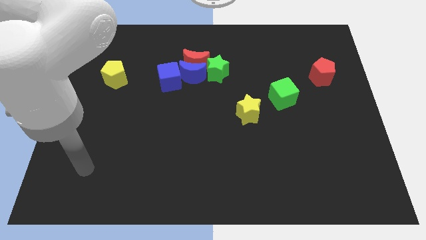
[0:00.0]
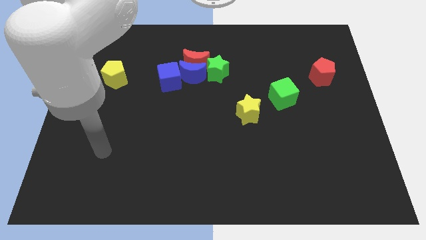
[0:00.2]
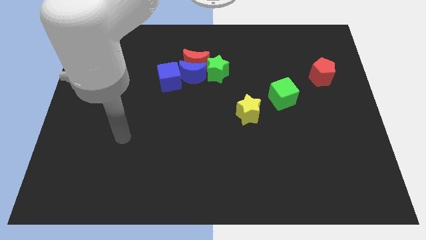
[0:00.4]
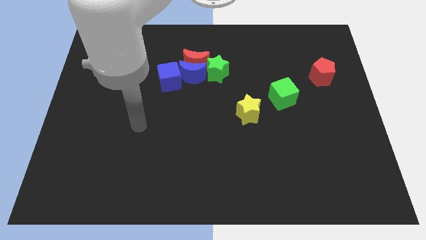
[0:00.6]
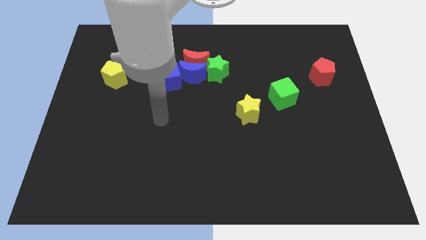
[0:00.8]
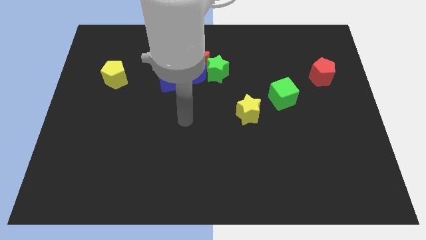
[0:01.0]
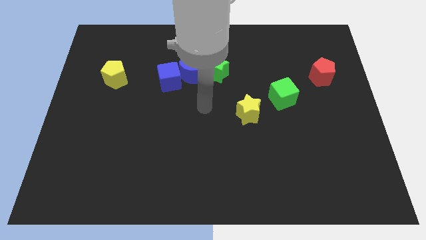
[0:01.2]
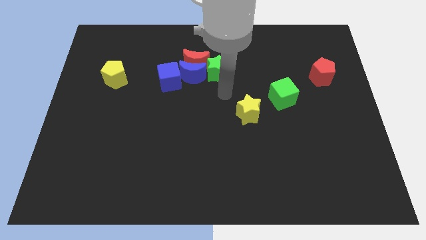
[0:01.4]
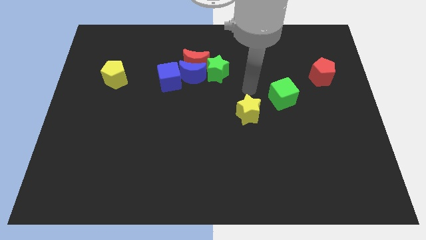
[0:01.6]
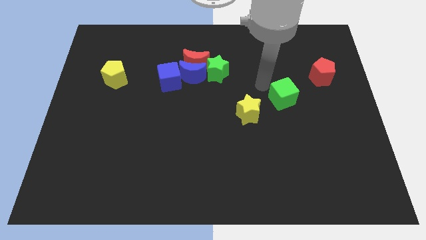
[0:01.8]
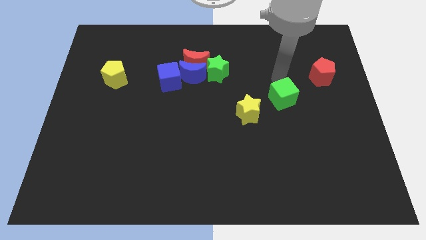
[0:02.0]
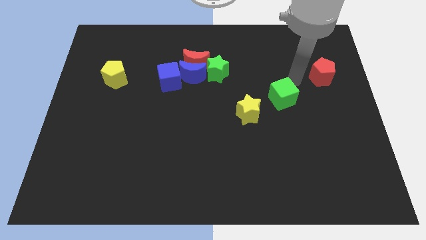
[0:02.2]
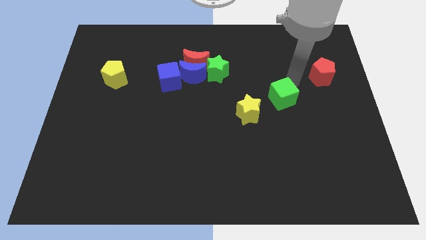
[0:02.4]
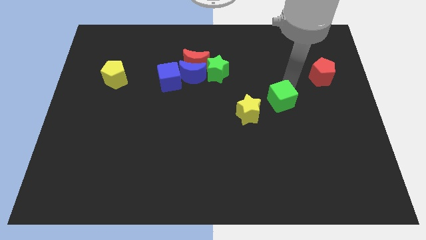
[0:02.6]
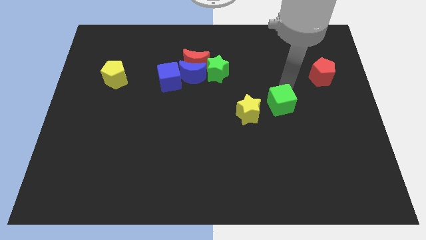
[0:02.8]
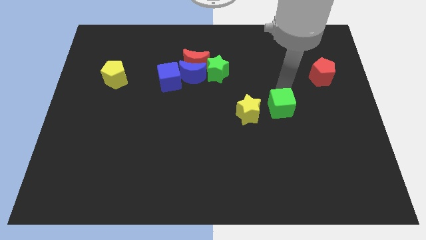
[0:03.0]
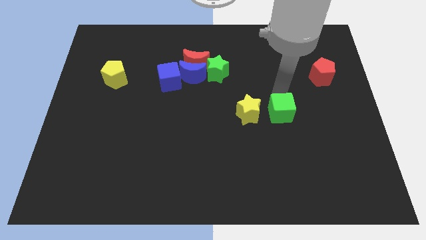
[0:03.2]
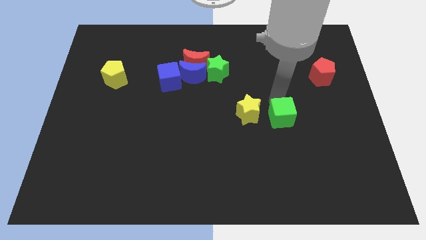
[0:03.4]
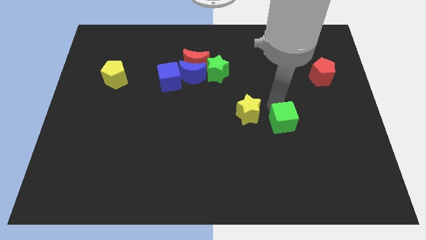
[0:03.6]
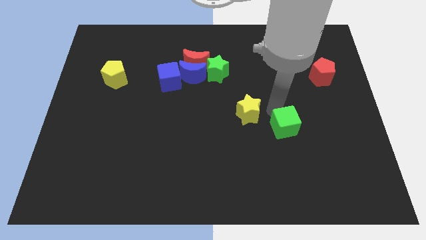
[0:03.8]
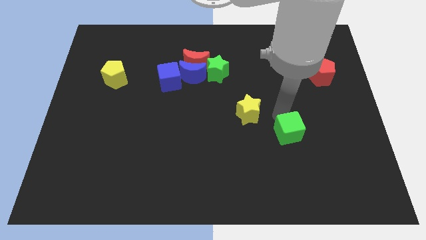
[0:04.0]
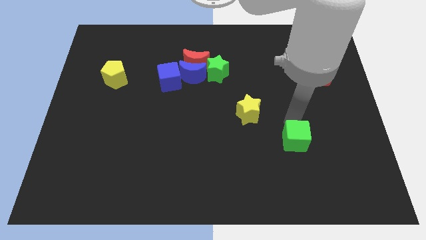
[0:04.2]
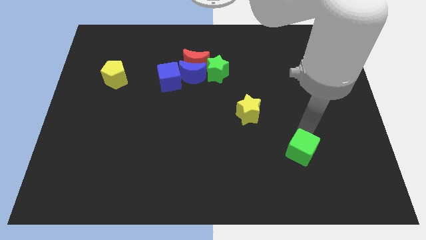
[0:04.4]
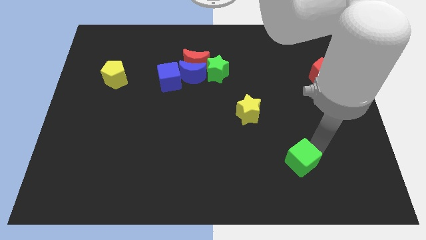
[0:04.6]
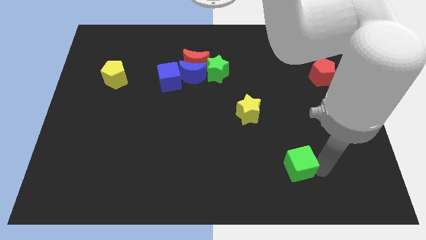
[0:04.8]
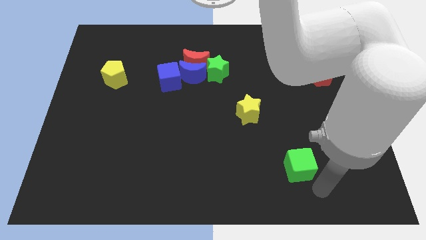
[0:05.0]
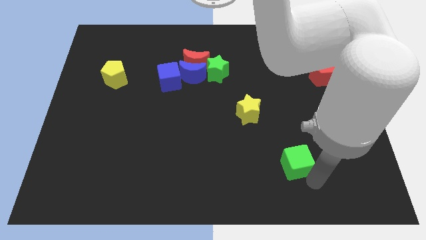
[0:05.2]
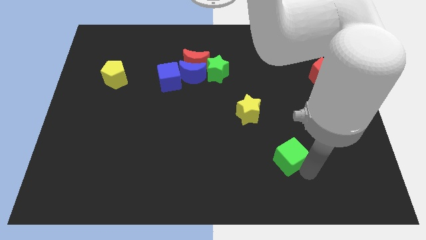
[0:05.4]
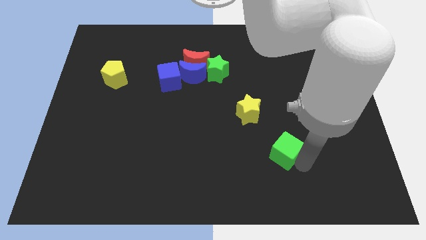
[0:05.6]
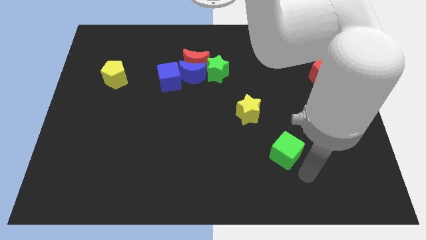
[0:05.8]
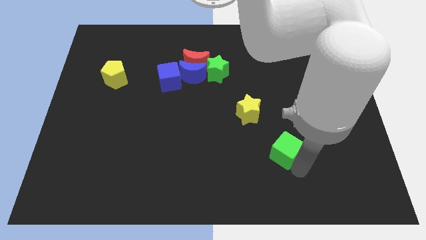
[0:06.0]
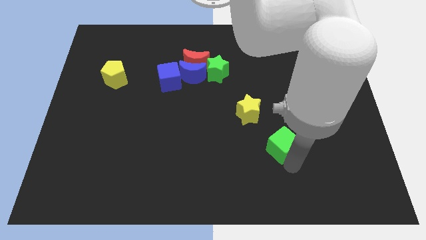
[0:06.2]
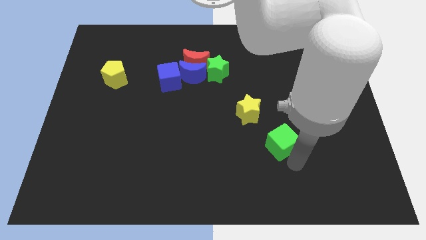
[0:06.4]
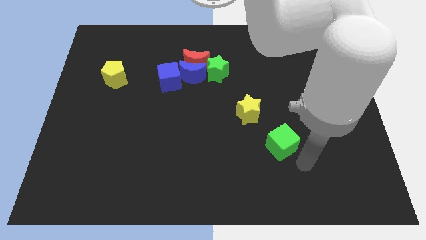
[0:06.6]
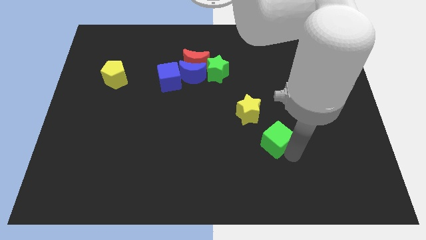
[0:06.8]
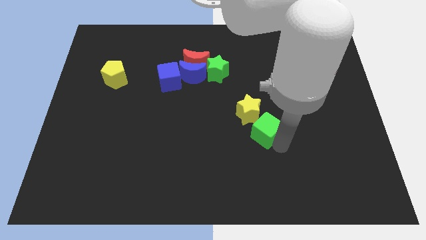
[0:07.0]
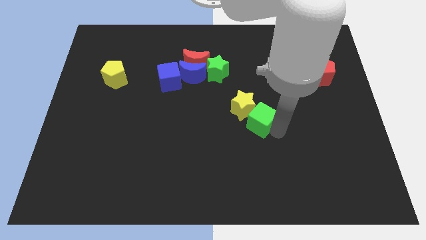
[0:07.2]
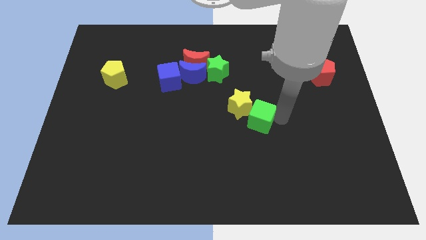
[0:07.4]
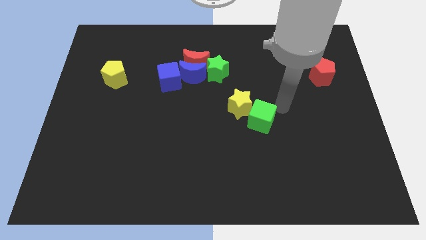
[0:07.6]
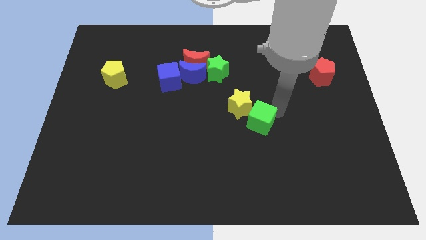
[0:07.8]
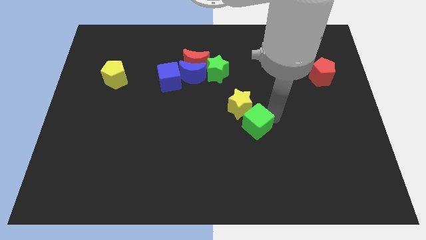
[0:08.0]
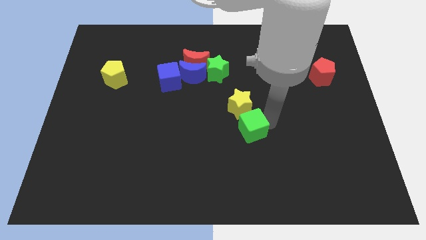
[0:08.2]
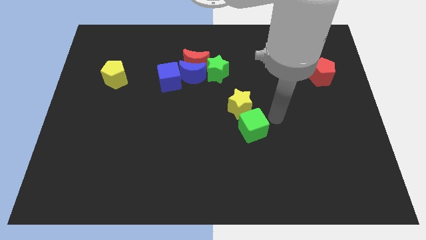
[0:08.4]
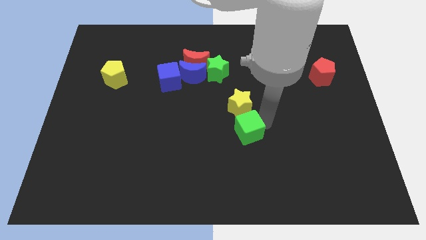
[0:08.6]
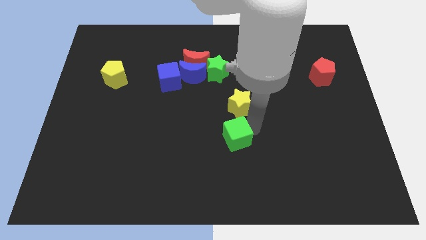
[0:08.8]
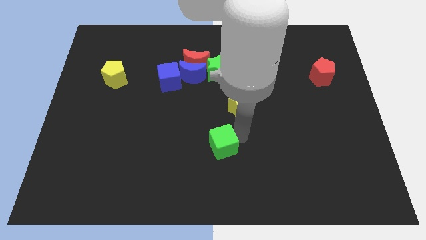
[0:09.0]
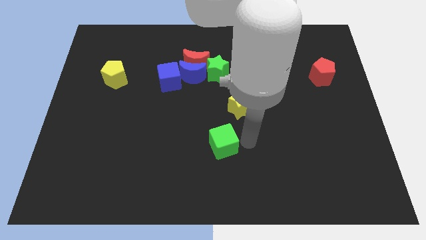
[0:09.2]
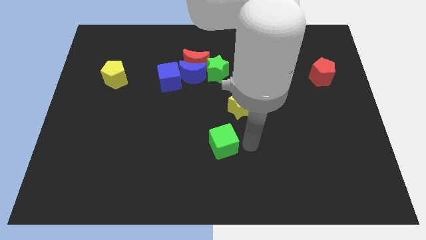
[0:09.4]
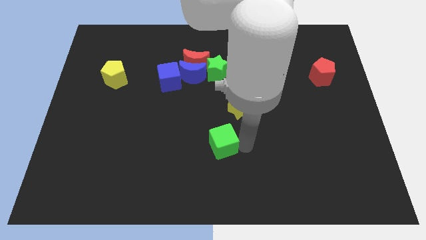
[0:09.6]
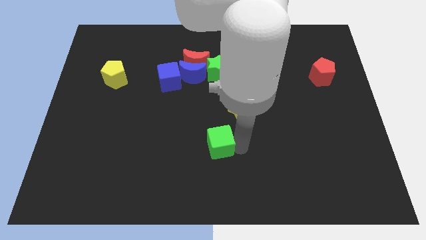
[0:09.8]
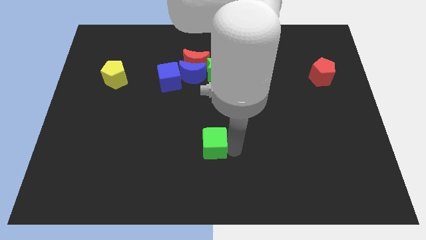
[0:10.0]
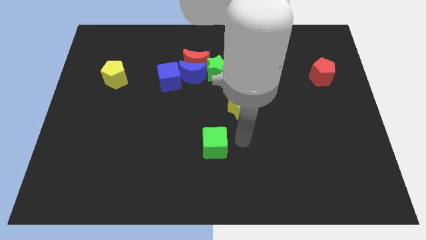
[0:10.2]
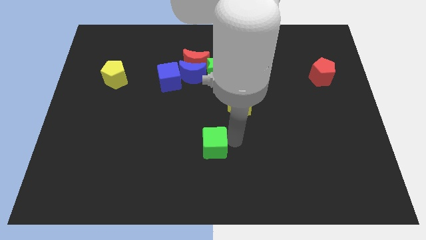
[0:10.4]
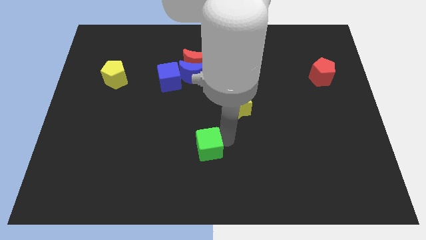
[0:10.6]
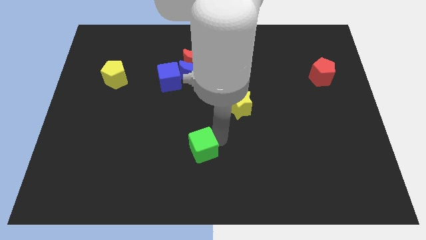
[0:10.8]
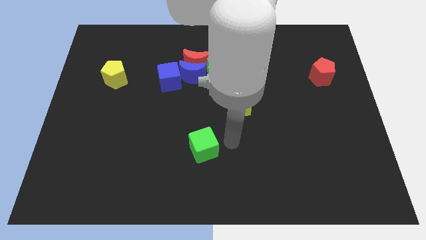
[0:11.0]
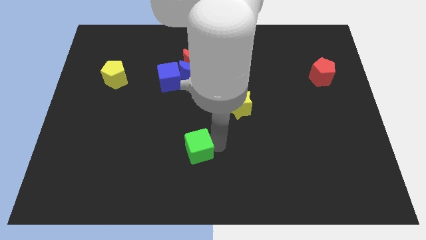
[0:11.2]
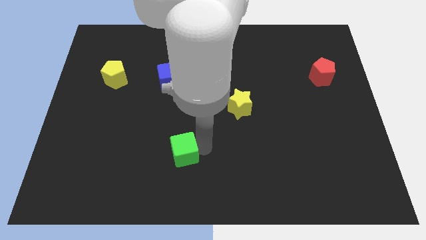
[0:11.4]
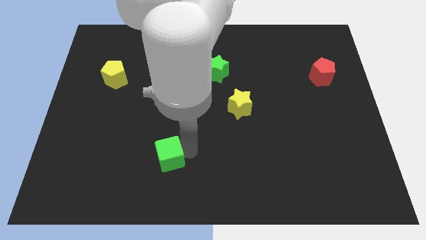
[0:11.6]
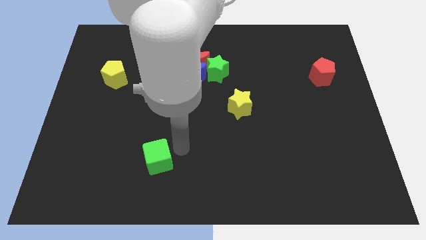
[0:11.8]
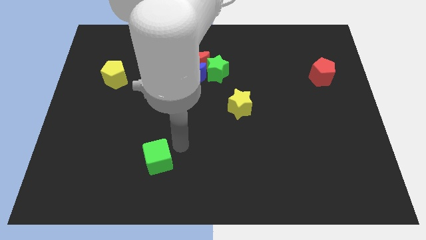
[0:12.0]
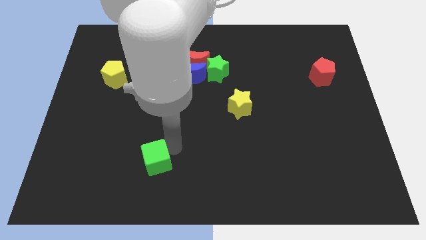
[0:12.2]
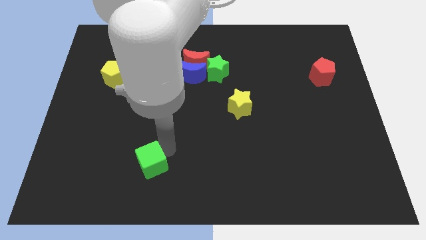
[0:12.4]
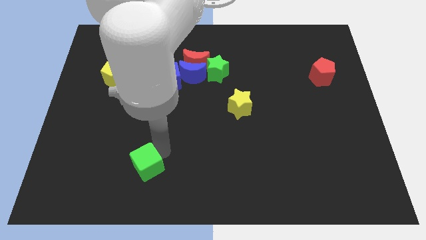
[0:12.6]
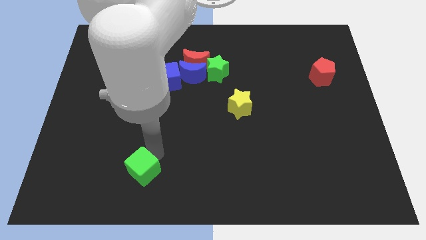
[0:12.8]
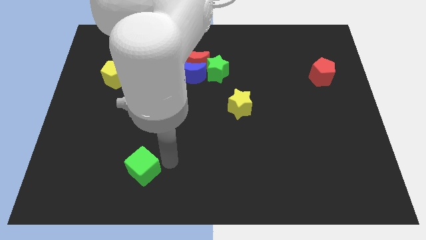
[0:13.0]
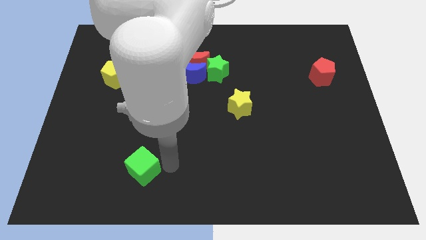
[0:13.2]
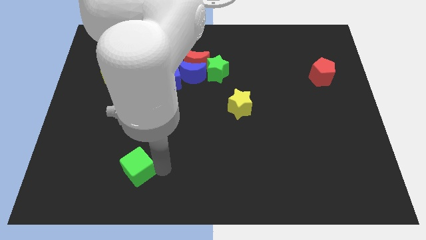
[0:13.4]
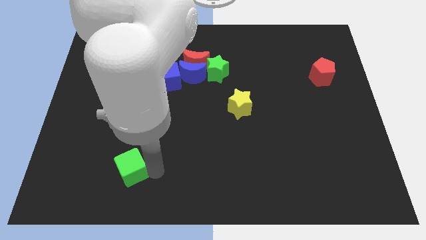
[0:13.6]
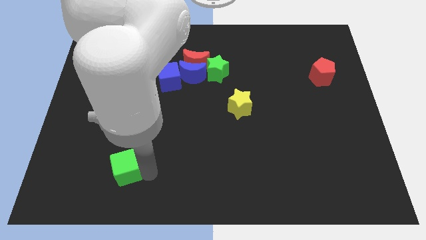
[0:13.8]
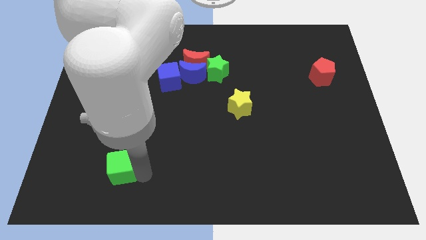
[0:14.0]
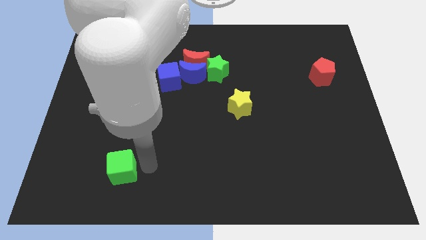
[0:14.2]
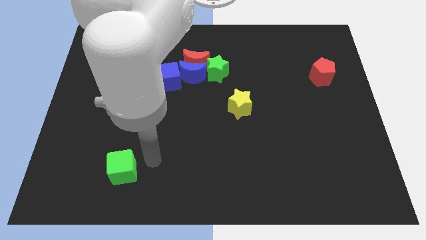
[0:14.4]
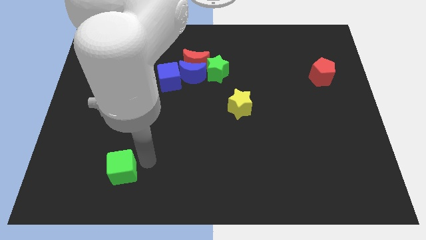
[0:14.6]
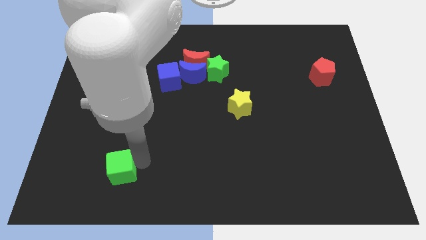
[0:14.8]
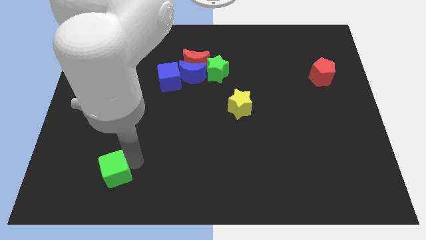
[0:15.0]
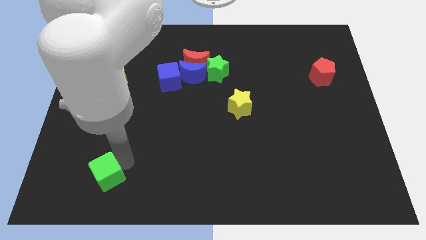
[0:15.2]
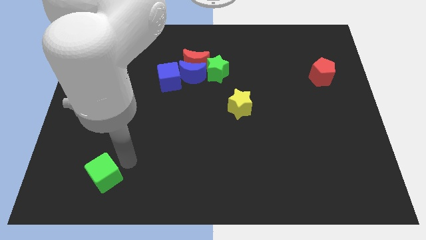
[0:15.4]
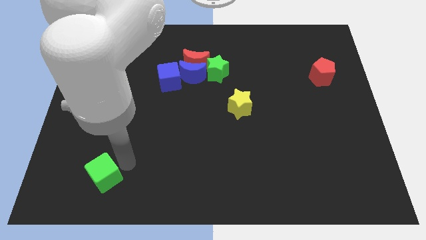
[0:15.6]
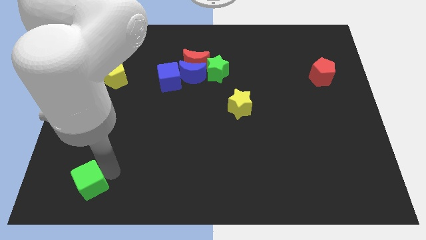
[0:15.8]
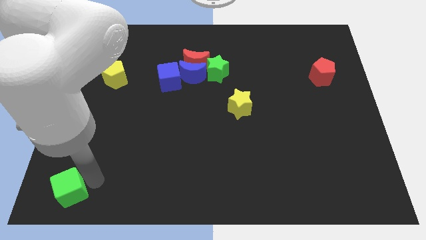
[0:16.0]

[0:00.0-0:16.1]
put the green cube to the bottom left of the board
